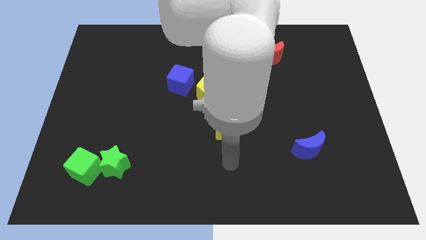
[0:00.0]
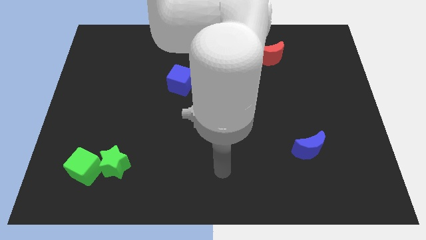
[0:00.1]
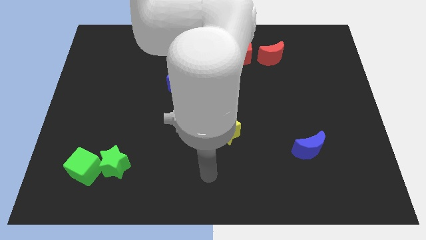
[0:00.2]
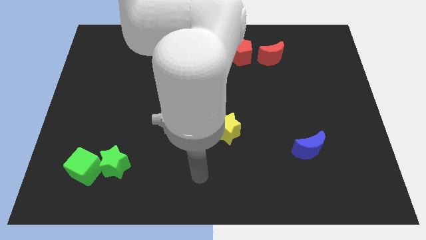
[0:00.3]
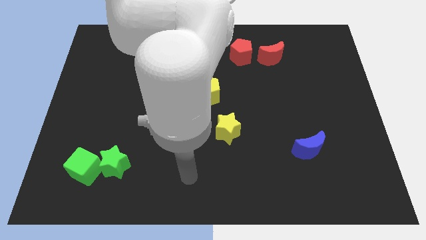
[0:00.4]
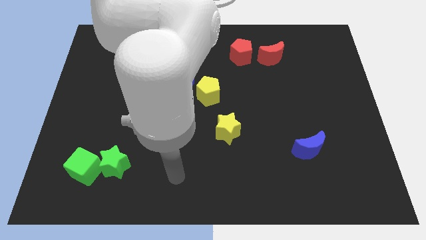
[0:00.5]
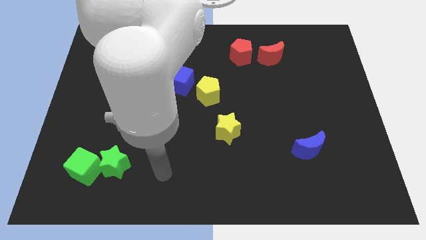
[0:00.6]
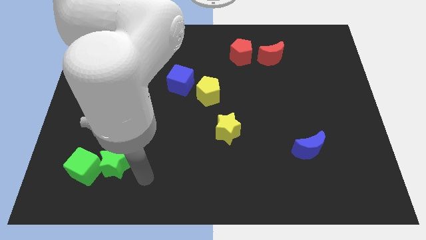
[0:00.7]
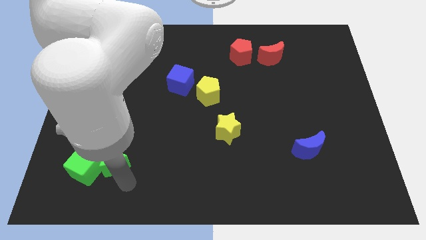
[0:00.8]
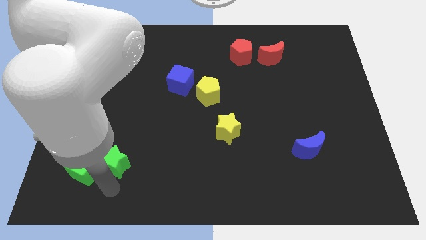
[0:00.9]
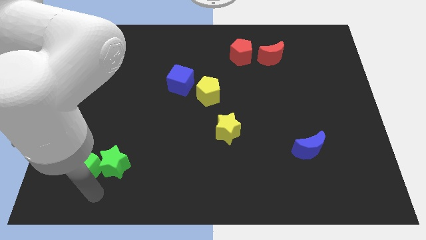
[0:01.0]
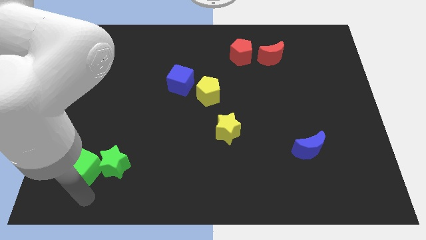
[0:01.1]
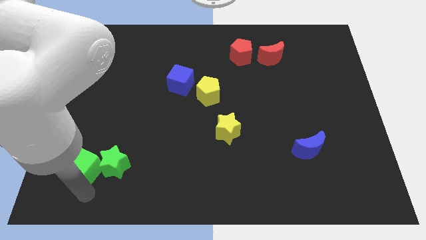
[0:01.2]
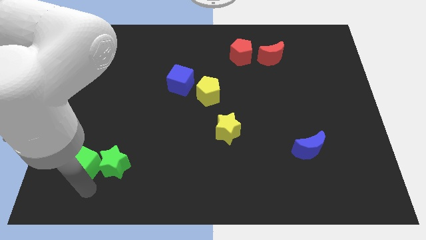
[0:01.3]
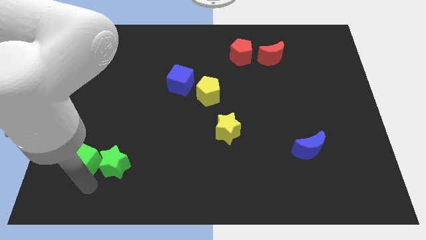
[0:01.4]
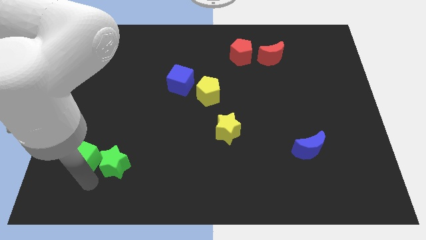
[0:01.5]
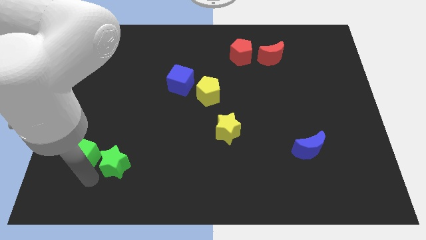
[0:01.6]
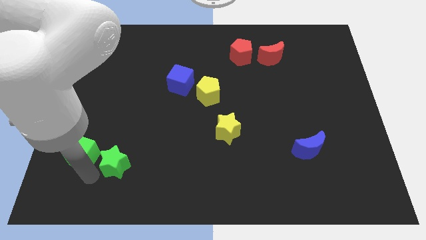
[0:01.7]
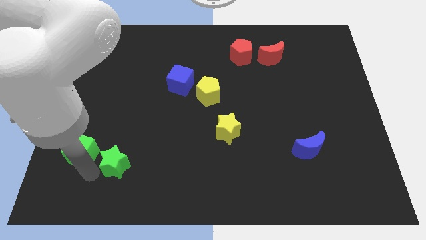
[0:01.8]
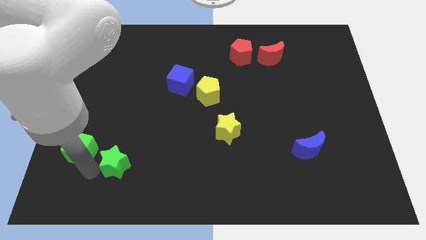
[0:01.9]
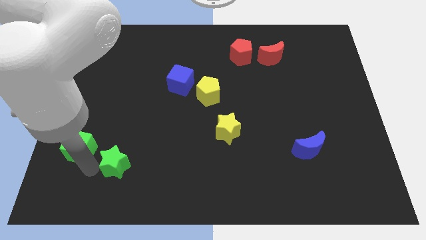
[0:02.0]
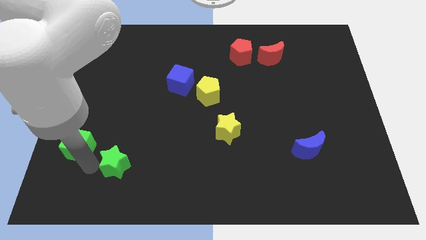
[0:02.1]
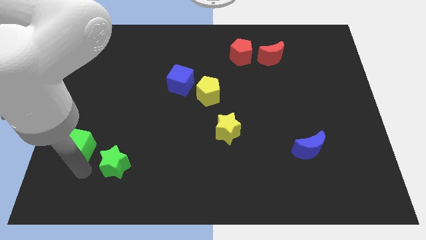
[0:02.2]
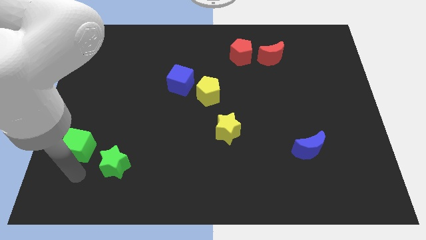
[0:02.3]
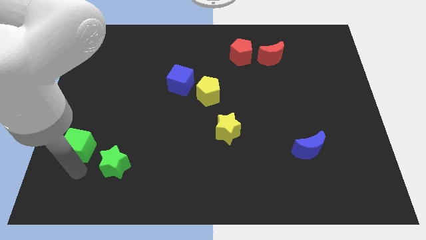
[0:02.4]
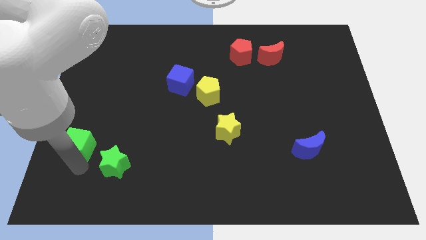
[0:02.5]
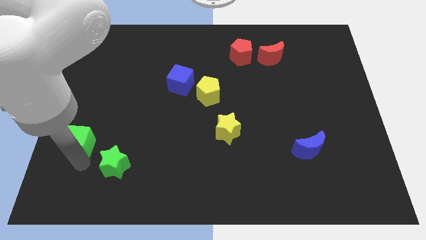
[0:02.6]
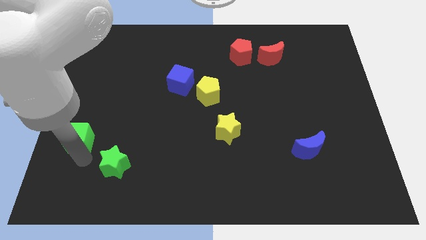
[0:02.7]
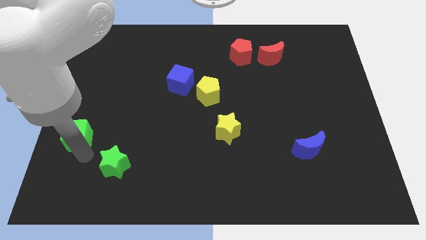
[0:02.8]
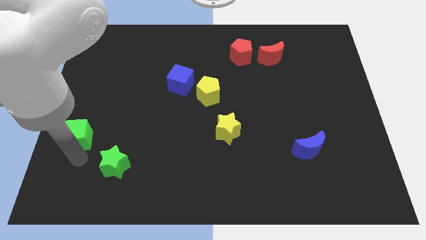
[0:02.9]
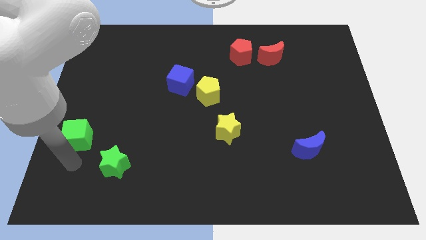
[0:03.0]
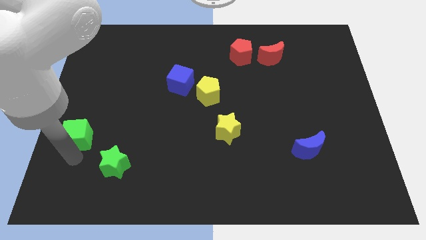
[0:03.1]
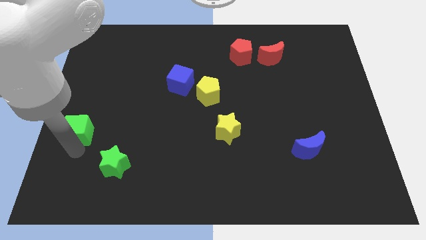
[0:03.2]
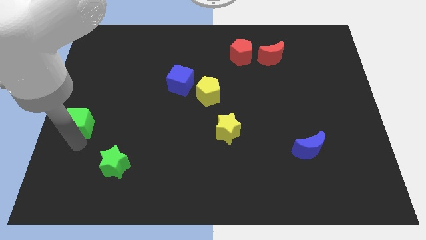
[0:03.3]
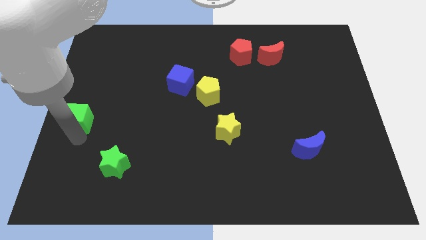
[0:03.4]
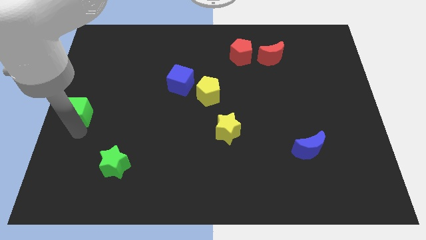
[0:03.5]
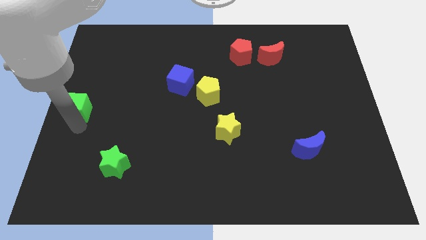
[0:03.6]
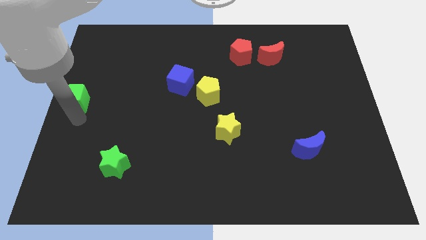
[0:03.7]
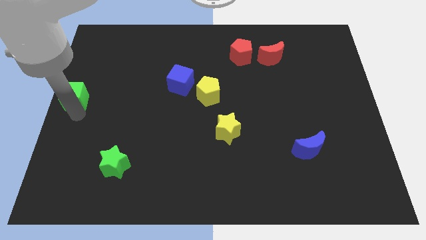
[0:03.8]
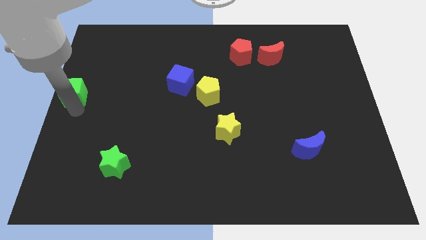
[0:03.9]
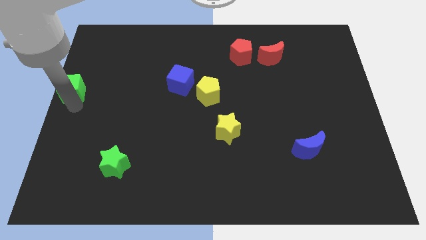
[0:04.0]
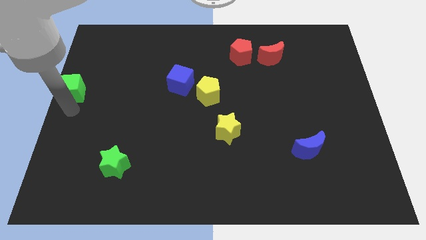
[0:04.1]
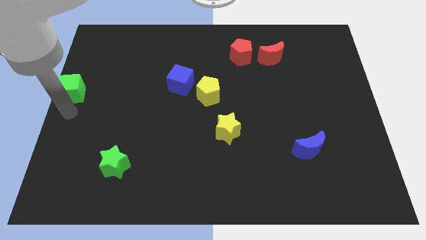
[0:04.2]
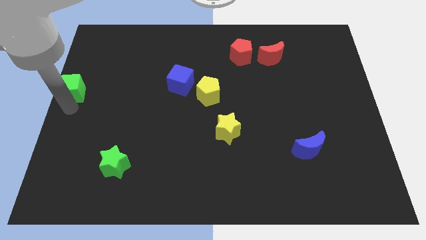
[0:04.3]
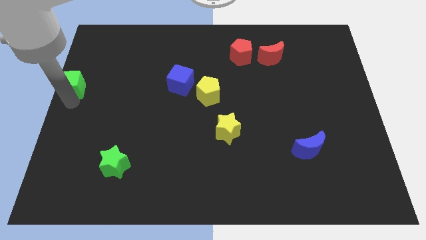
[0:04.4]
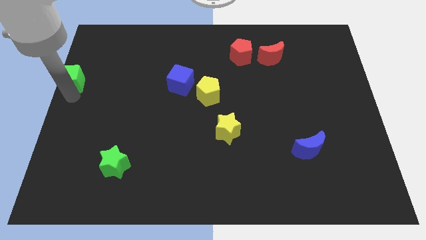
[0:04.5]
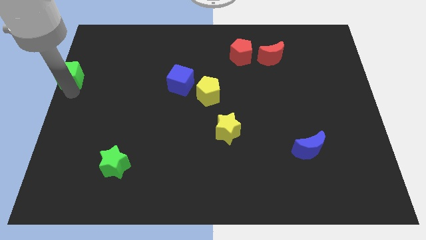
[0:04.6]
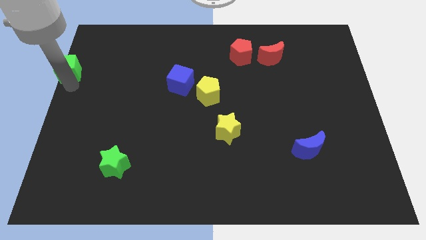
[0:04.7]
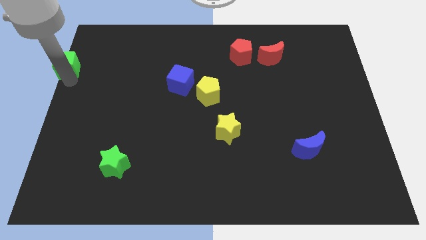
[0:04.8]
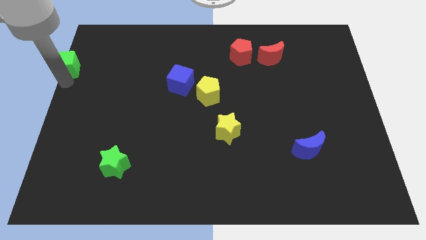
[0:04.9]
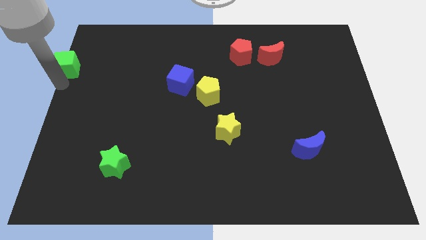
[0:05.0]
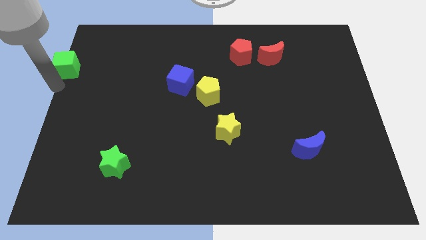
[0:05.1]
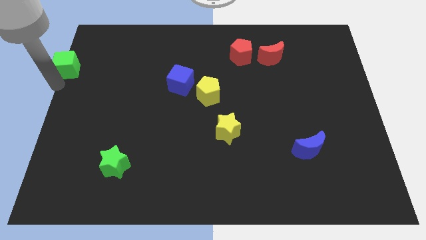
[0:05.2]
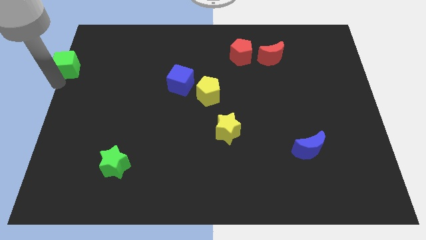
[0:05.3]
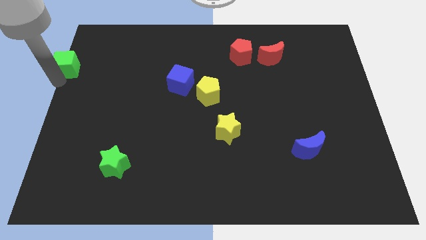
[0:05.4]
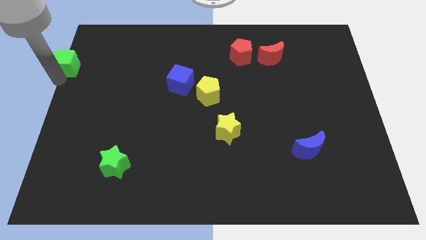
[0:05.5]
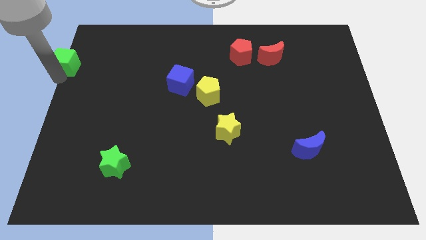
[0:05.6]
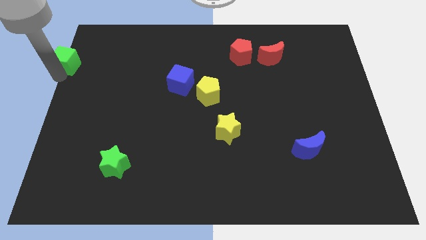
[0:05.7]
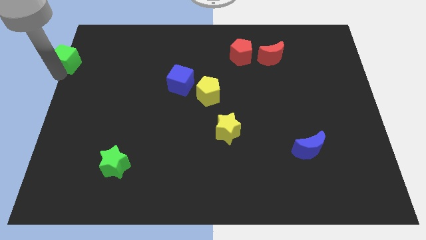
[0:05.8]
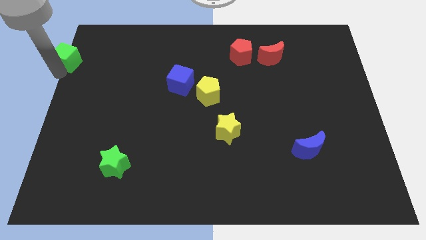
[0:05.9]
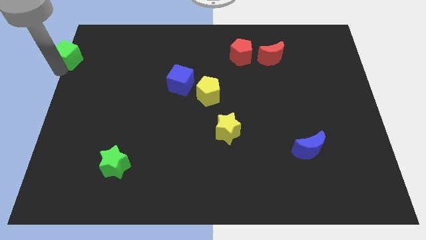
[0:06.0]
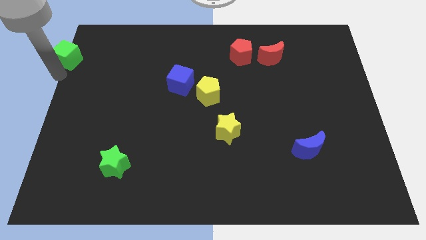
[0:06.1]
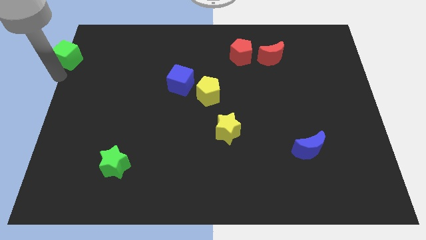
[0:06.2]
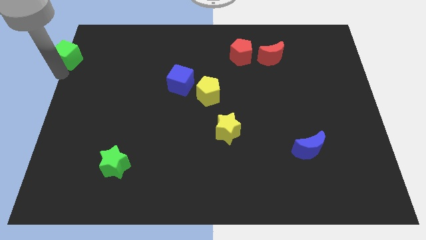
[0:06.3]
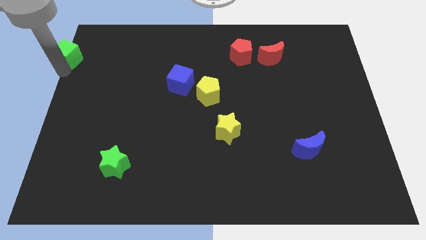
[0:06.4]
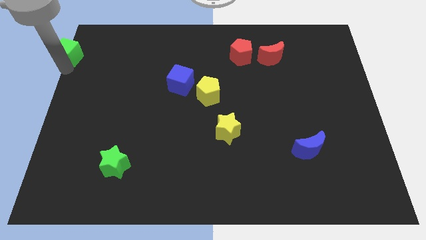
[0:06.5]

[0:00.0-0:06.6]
move the green cube to the top left of the board

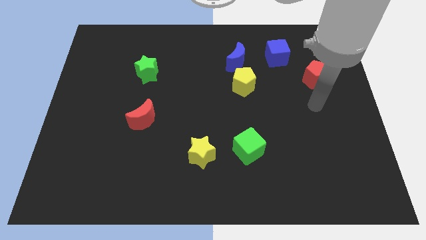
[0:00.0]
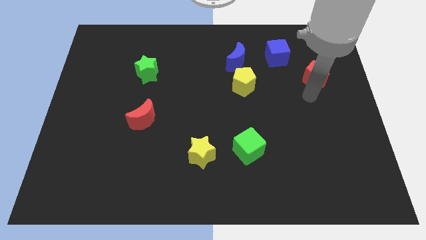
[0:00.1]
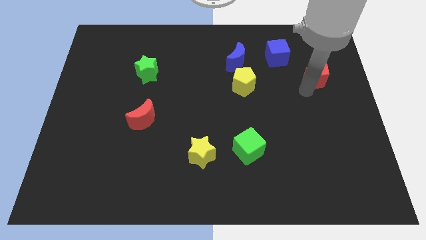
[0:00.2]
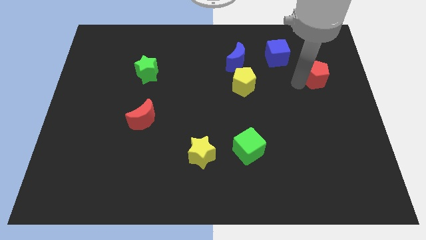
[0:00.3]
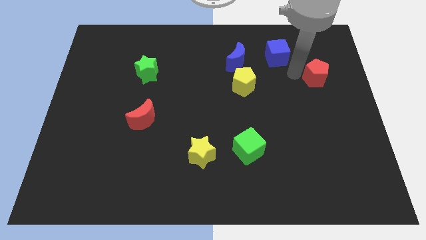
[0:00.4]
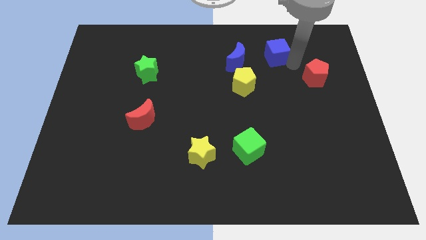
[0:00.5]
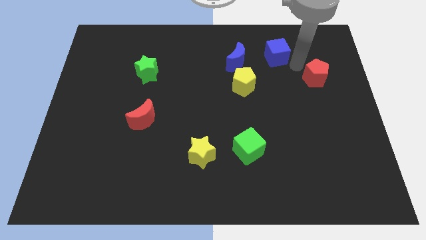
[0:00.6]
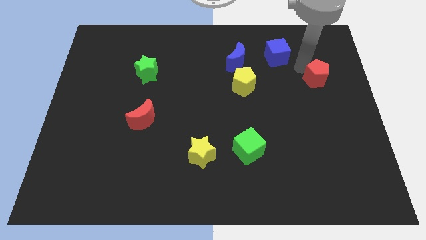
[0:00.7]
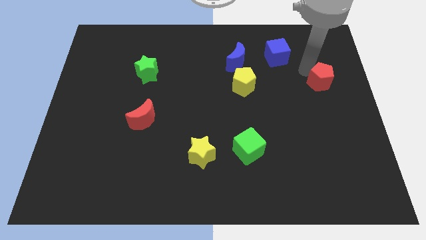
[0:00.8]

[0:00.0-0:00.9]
put the red pentagon to the center right
